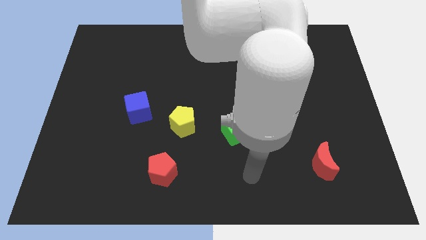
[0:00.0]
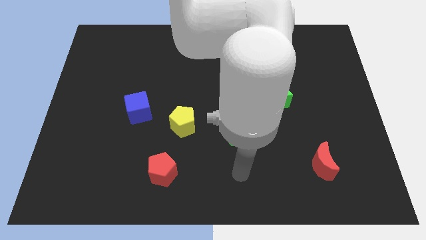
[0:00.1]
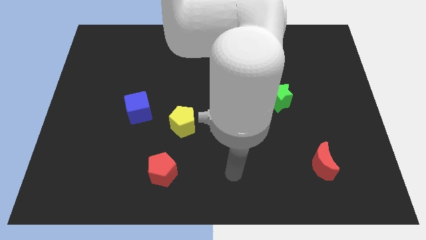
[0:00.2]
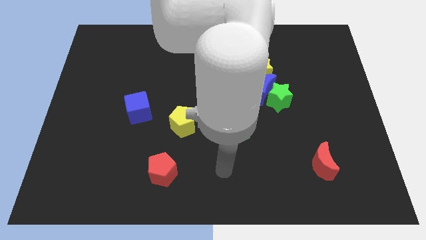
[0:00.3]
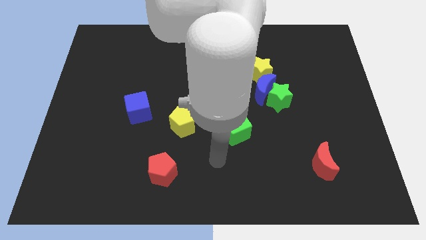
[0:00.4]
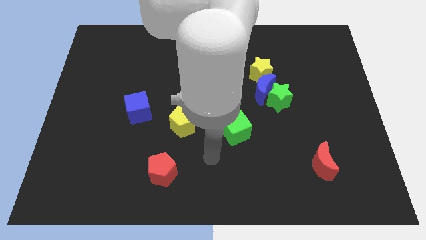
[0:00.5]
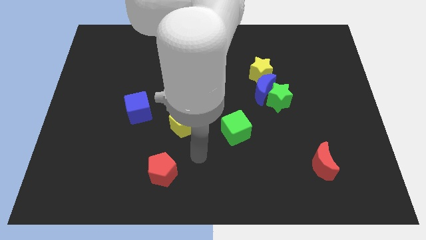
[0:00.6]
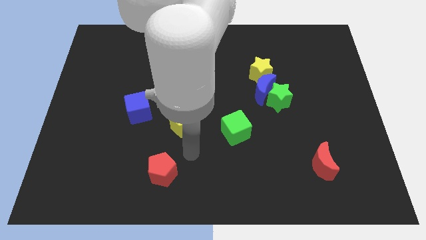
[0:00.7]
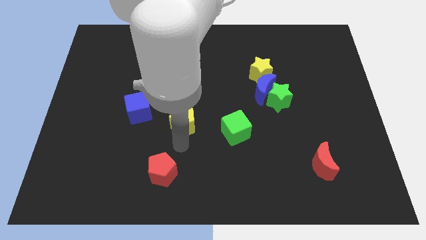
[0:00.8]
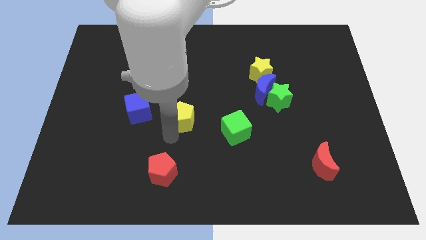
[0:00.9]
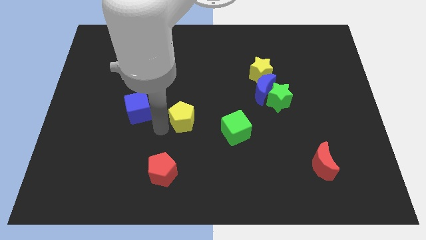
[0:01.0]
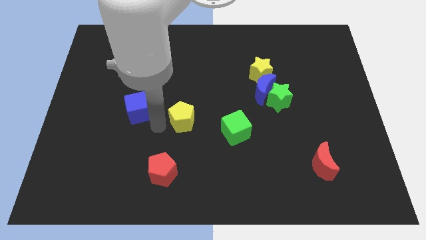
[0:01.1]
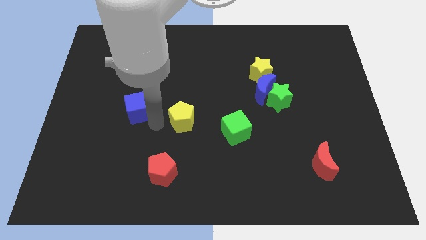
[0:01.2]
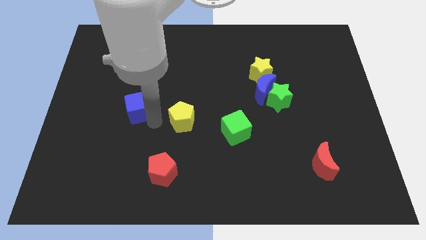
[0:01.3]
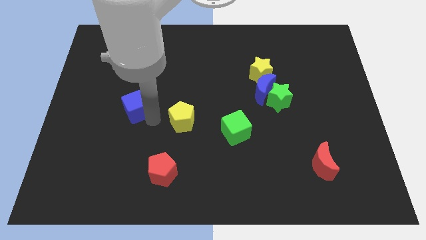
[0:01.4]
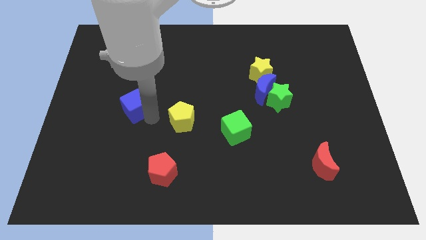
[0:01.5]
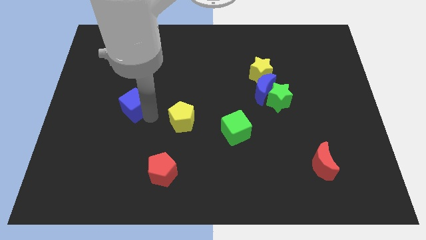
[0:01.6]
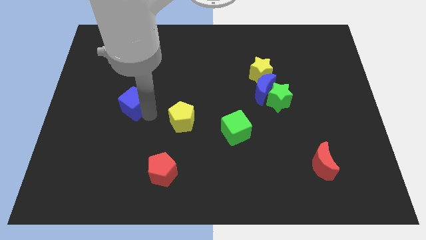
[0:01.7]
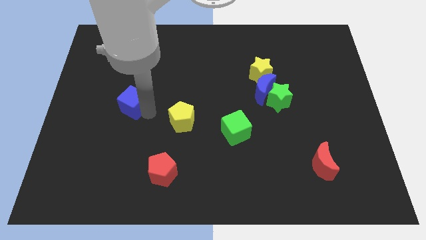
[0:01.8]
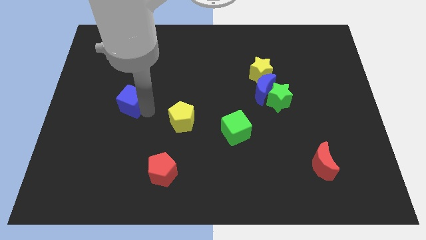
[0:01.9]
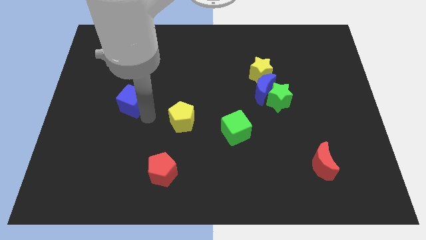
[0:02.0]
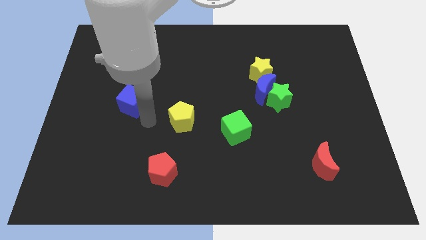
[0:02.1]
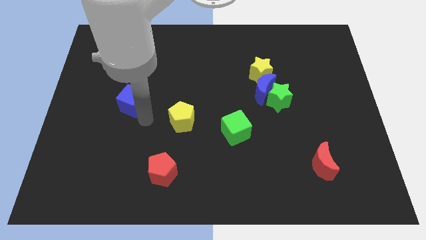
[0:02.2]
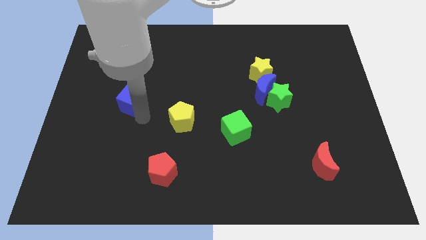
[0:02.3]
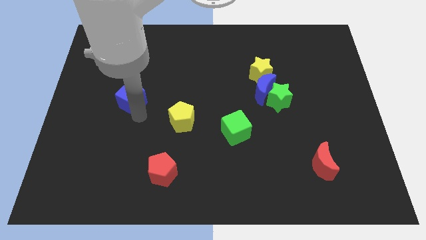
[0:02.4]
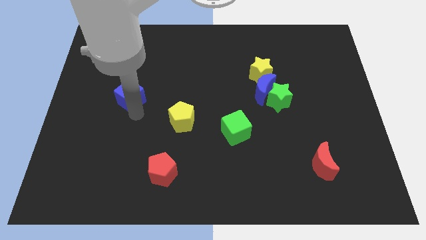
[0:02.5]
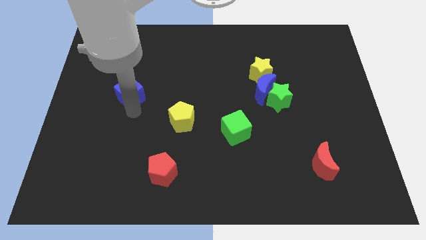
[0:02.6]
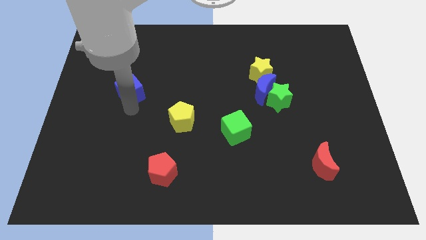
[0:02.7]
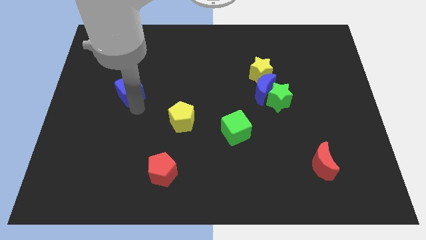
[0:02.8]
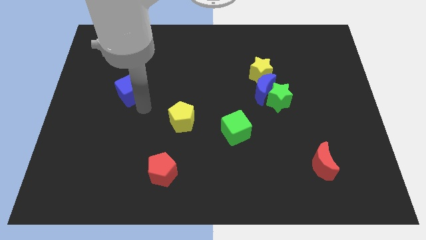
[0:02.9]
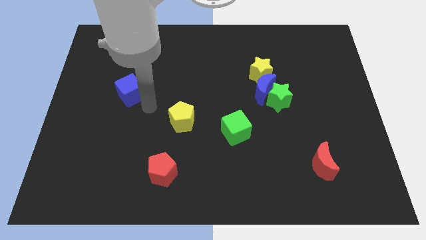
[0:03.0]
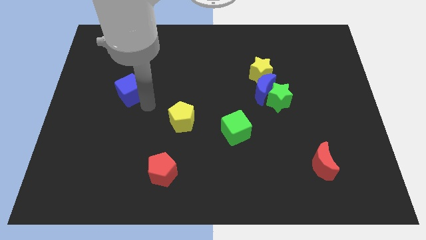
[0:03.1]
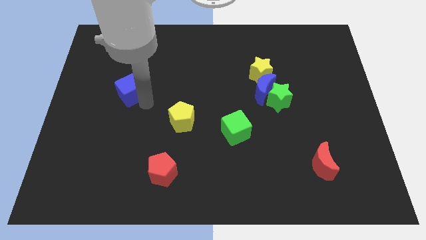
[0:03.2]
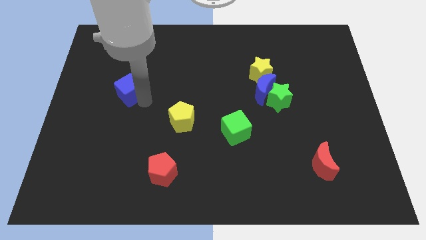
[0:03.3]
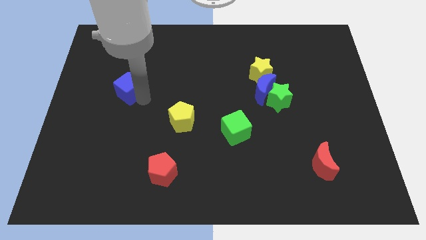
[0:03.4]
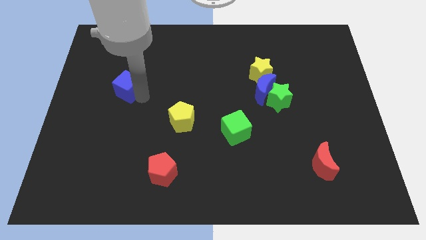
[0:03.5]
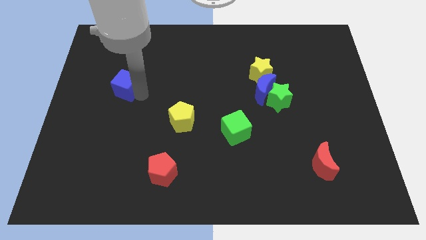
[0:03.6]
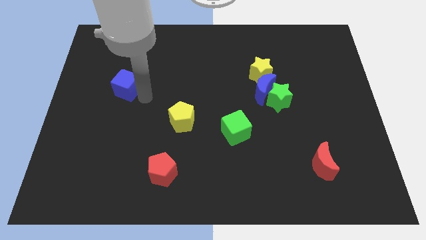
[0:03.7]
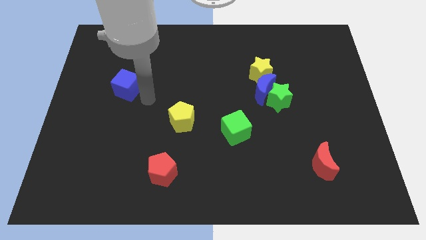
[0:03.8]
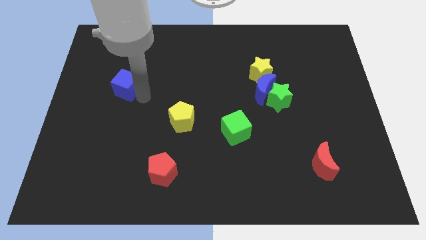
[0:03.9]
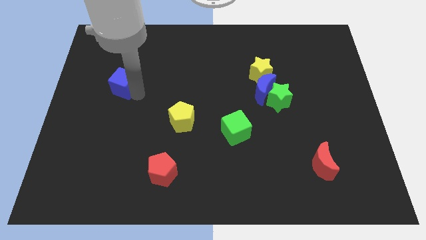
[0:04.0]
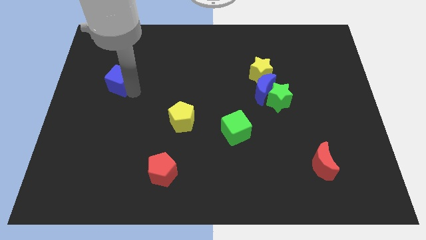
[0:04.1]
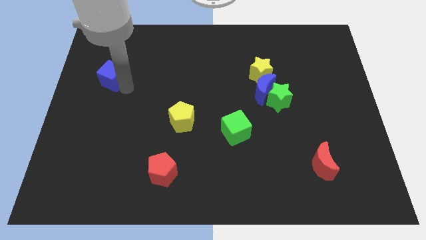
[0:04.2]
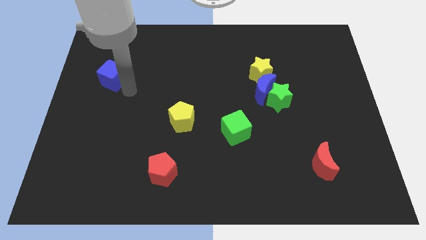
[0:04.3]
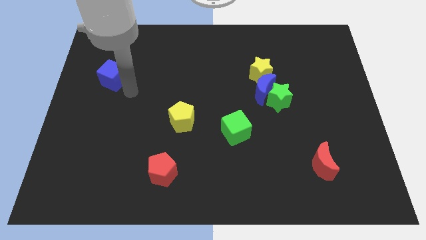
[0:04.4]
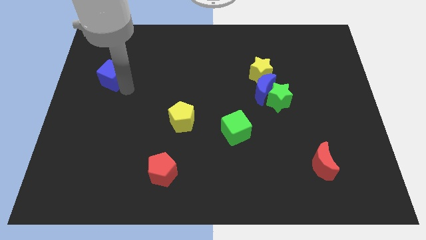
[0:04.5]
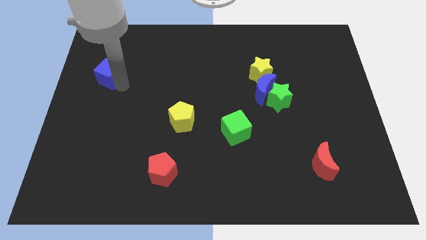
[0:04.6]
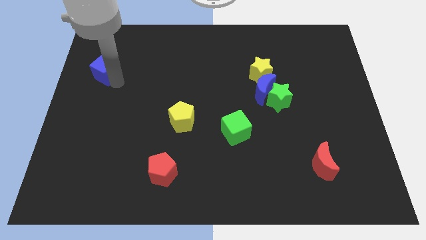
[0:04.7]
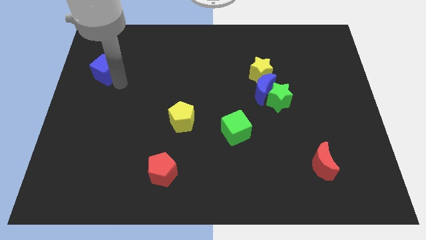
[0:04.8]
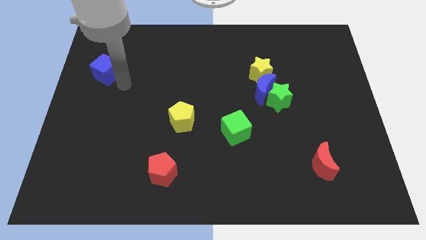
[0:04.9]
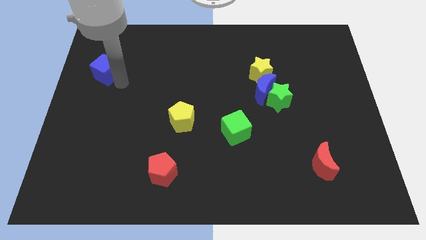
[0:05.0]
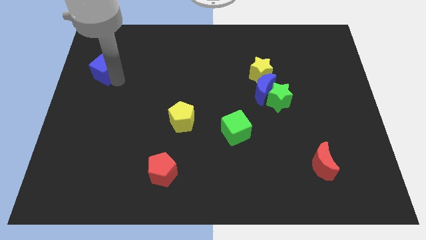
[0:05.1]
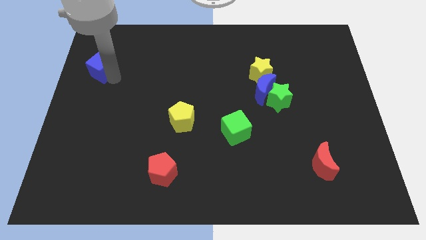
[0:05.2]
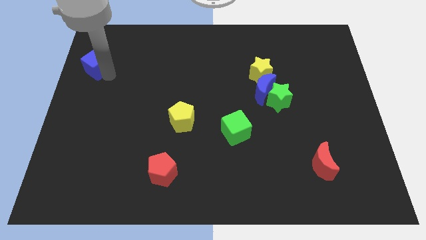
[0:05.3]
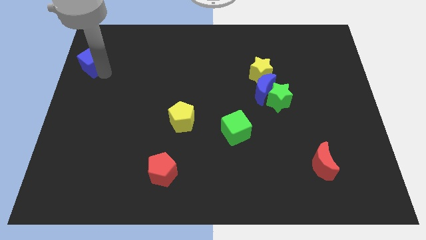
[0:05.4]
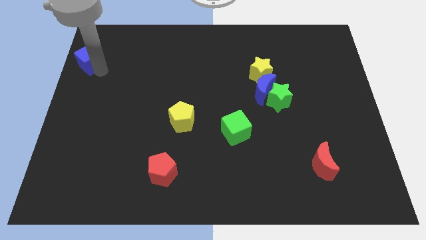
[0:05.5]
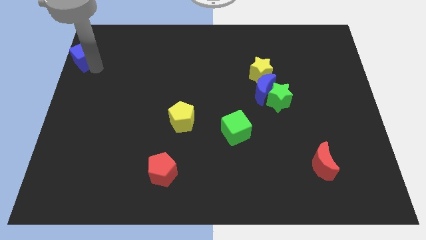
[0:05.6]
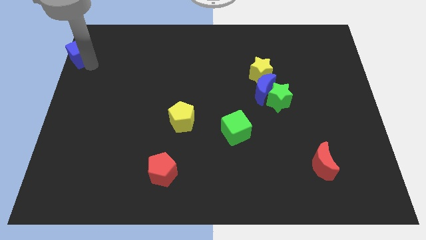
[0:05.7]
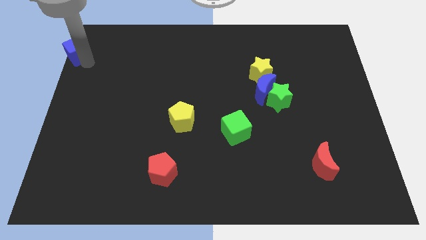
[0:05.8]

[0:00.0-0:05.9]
slide the blue cube to the top left

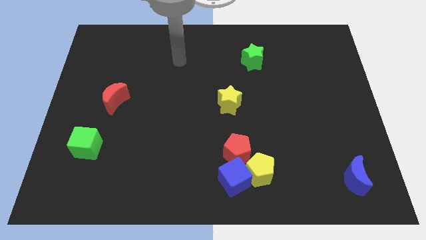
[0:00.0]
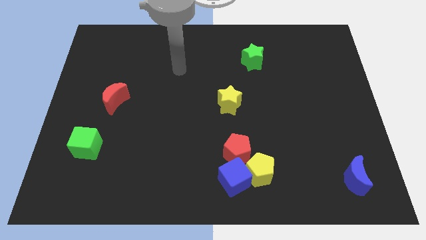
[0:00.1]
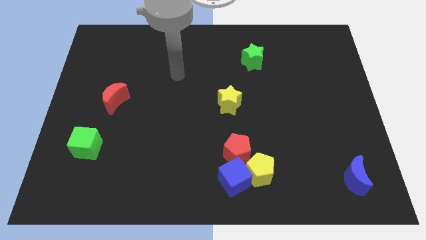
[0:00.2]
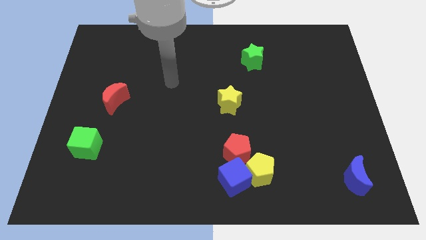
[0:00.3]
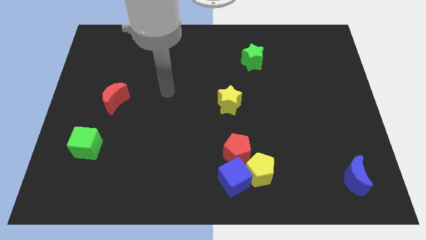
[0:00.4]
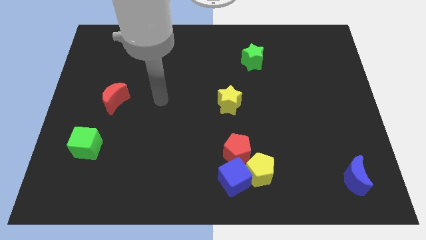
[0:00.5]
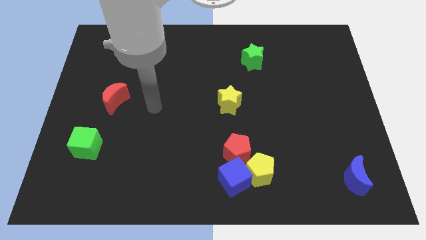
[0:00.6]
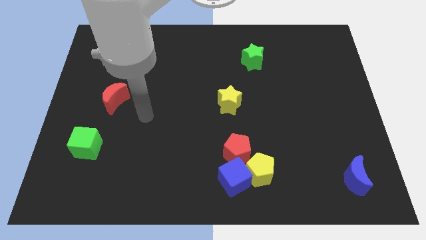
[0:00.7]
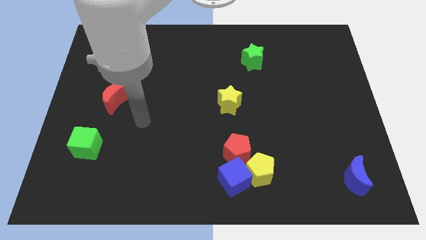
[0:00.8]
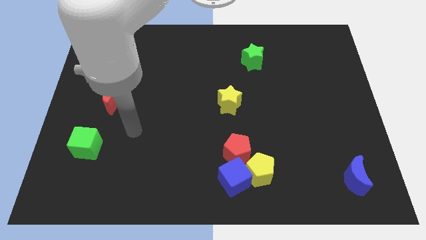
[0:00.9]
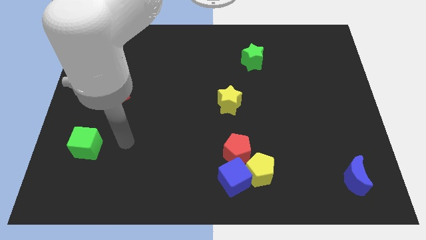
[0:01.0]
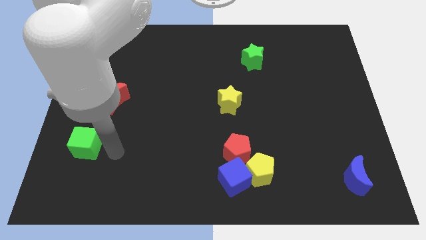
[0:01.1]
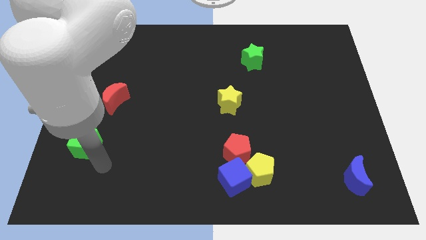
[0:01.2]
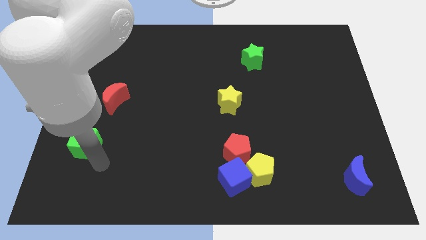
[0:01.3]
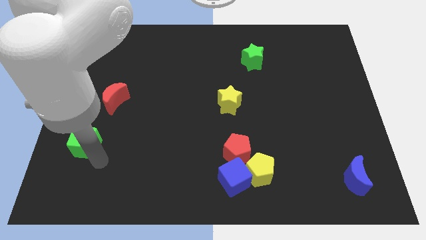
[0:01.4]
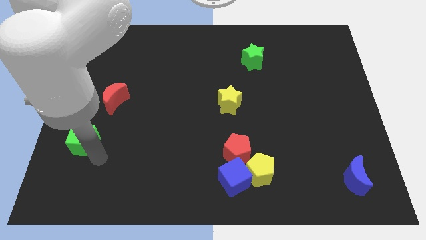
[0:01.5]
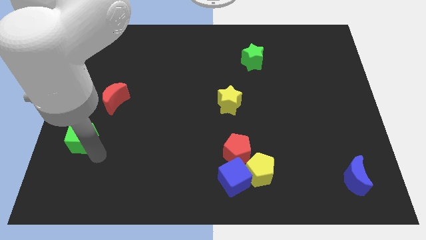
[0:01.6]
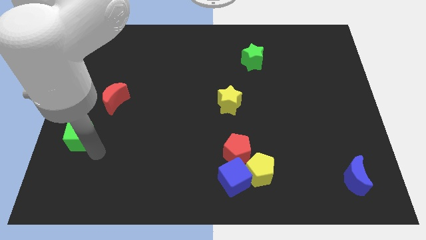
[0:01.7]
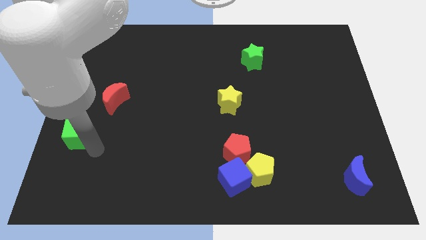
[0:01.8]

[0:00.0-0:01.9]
push the green cube to the left side
